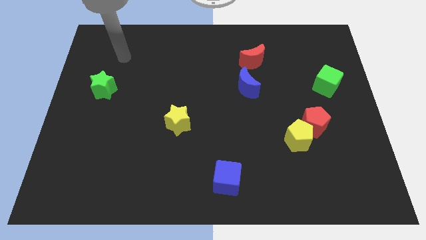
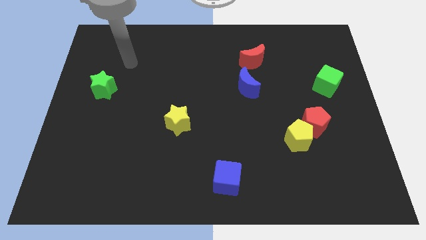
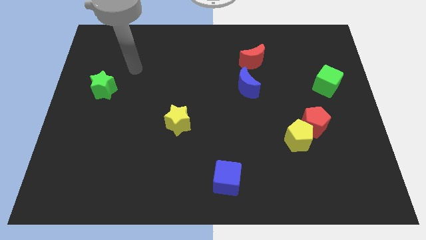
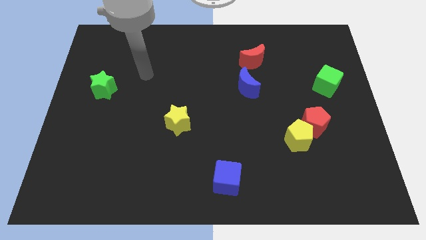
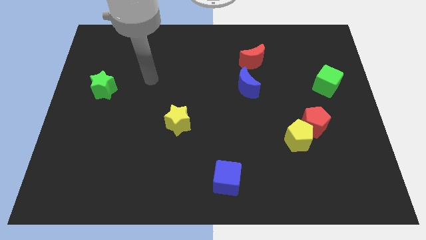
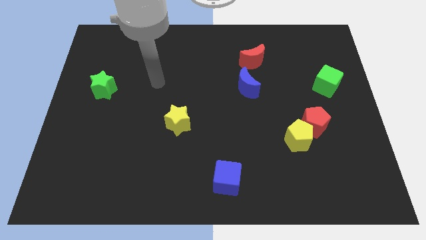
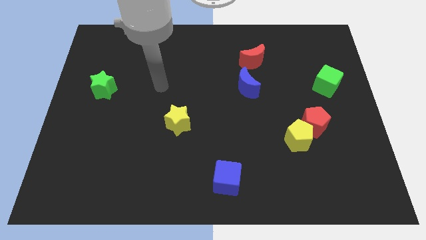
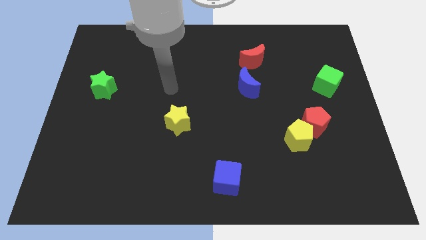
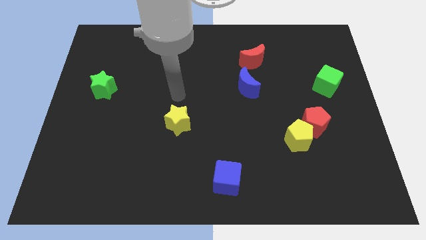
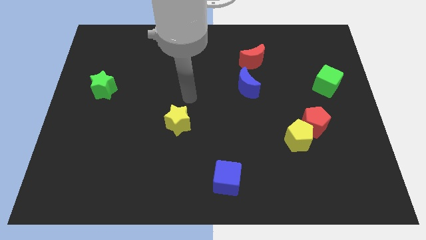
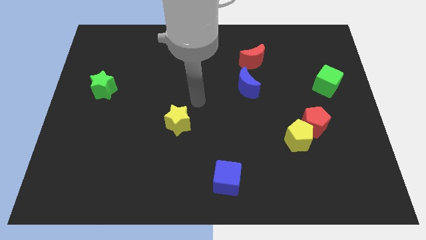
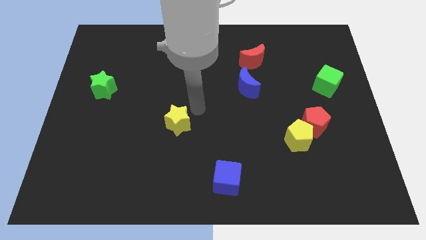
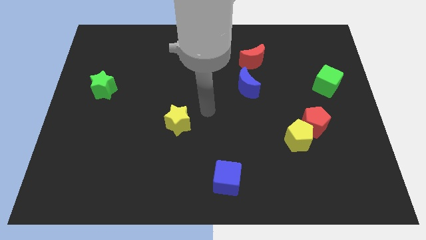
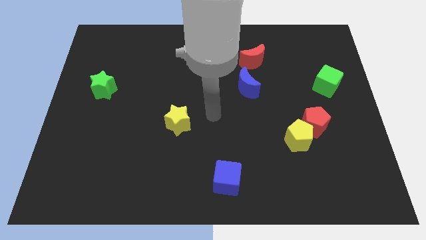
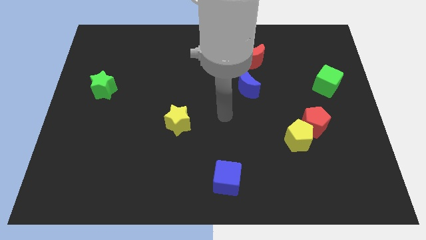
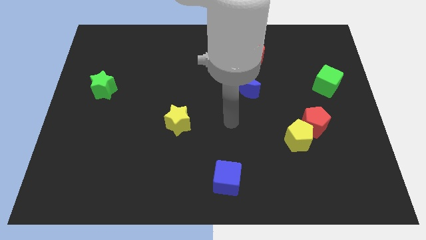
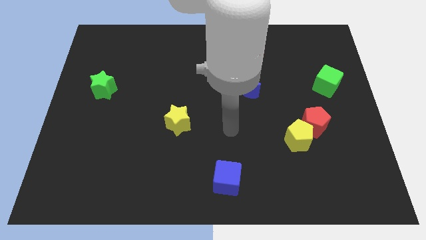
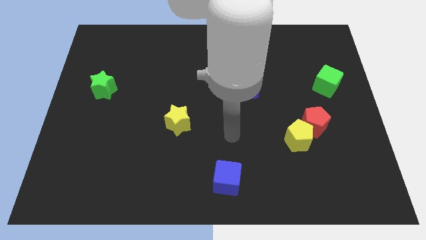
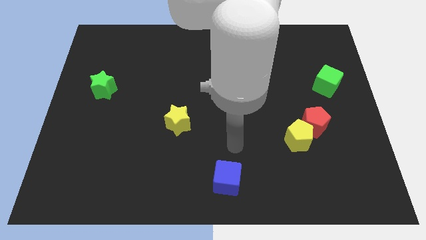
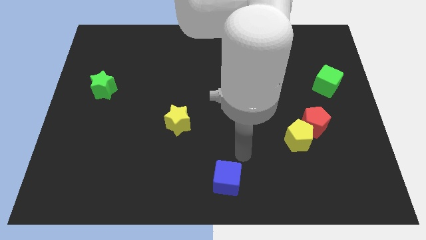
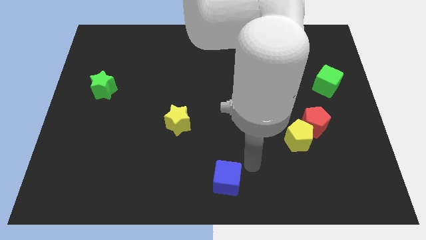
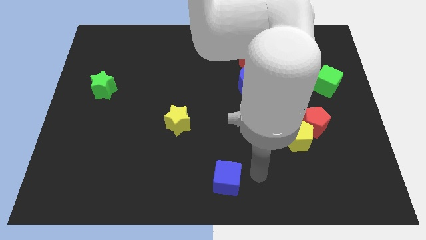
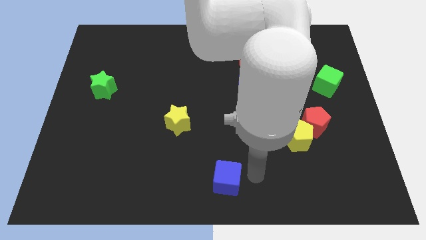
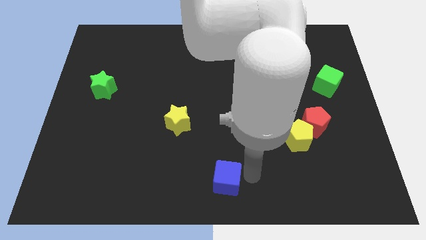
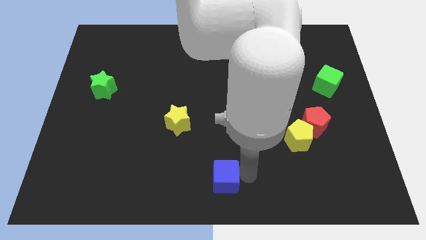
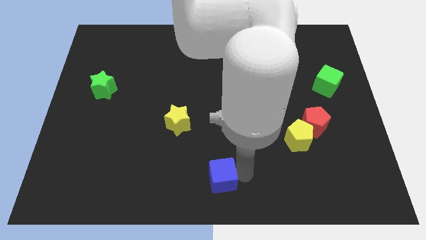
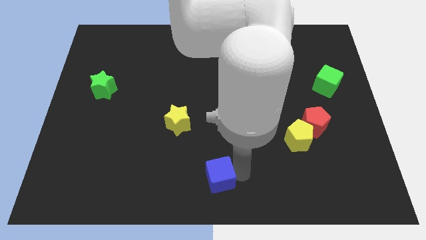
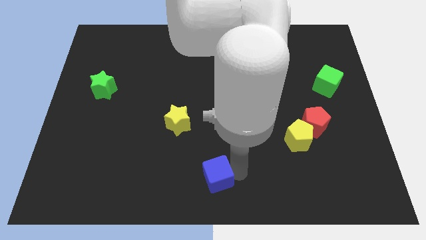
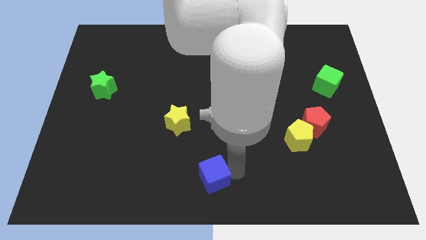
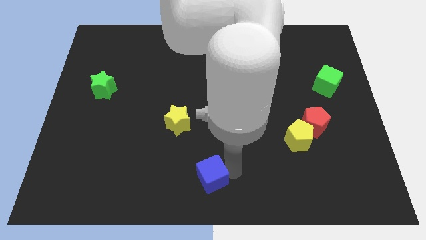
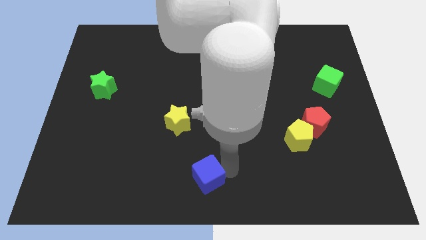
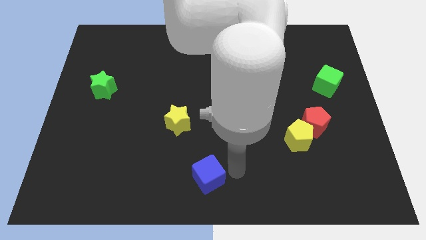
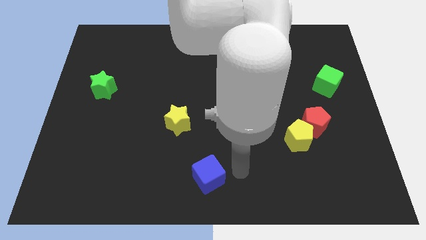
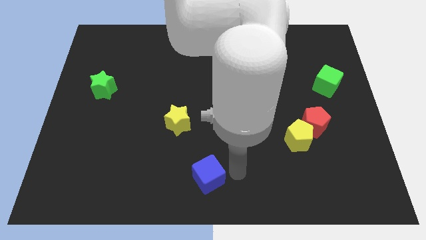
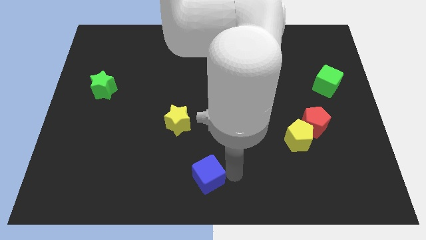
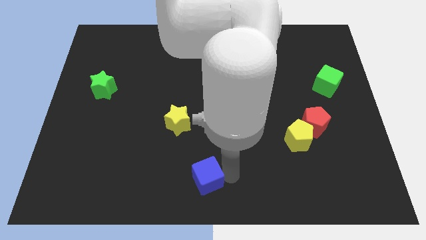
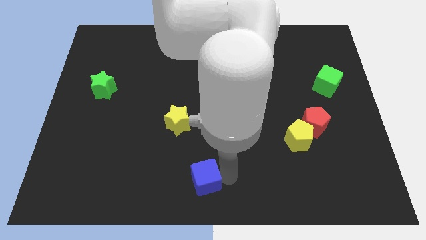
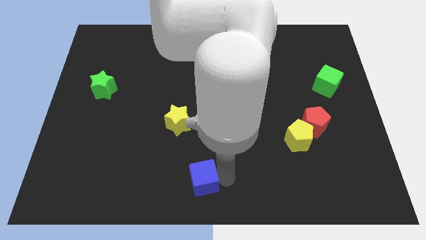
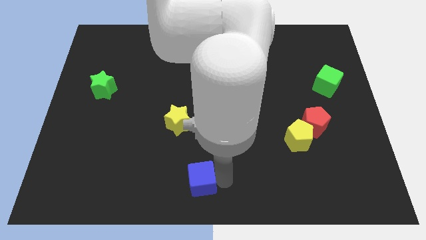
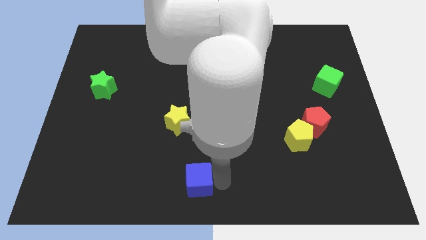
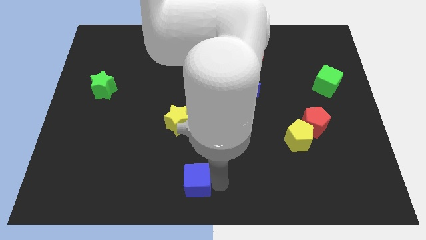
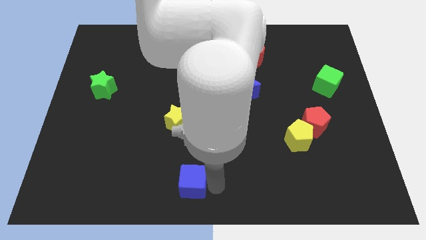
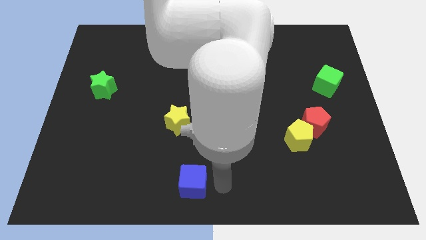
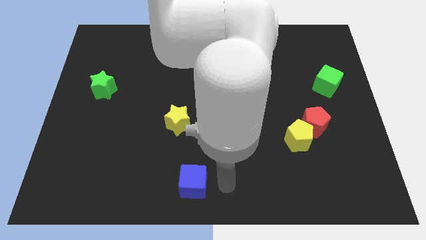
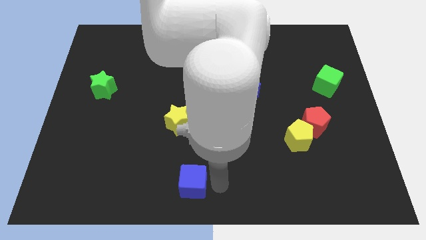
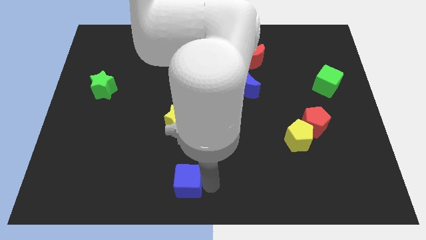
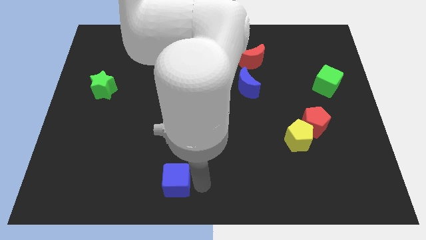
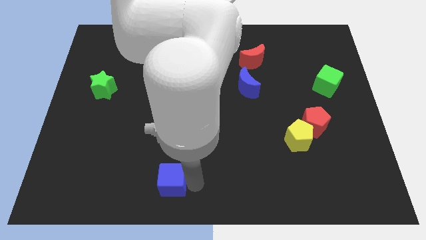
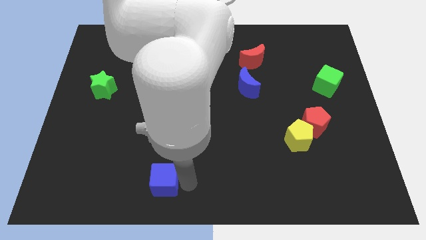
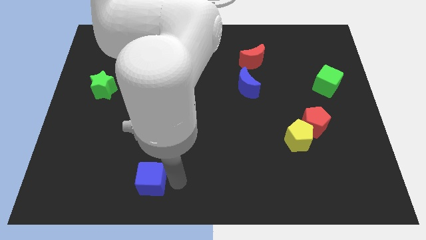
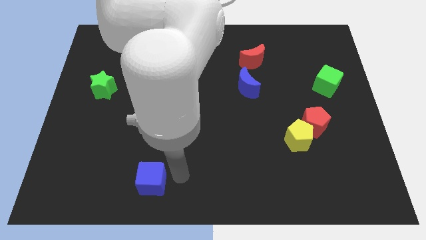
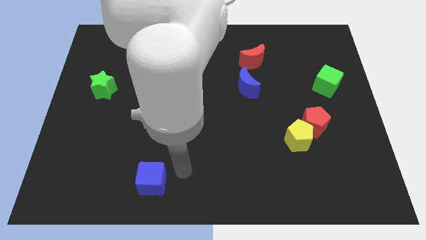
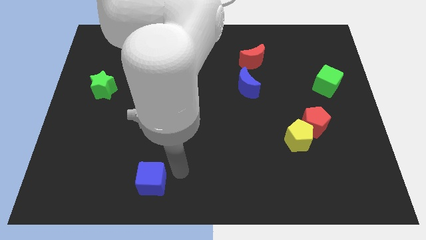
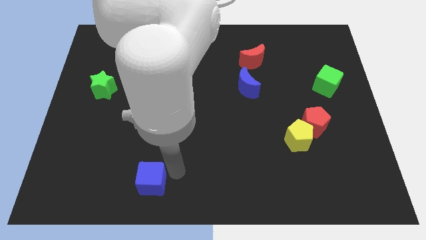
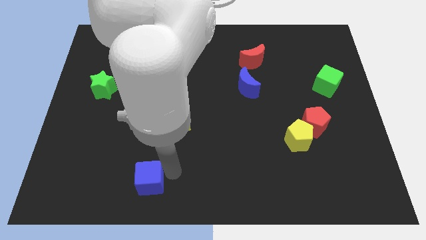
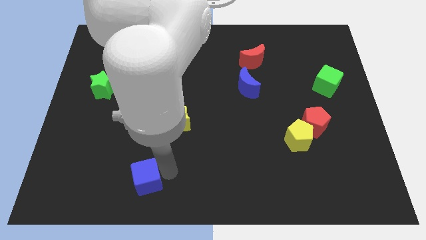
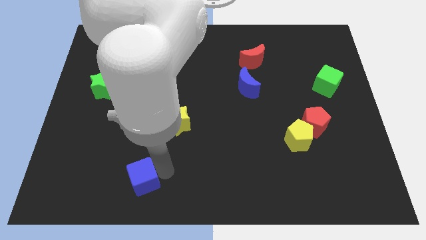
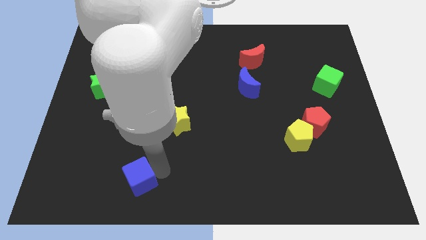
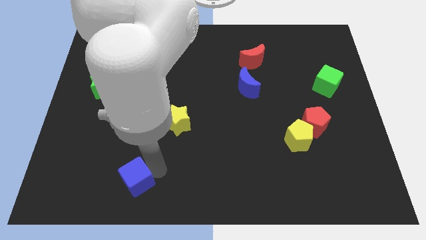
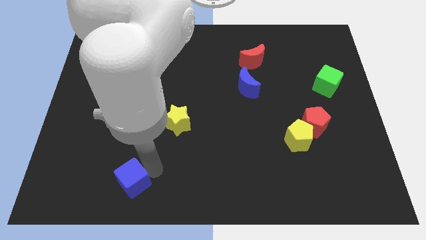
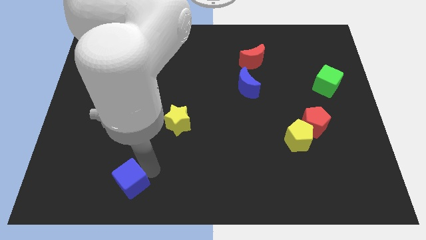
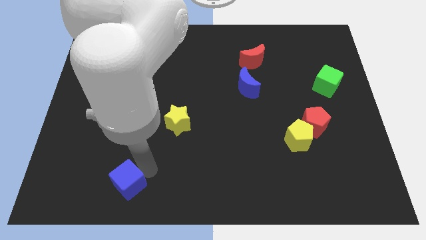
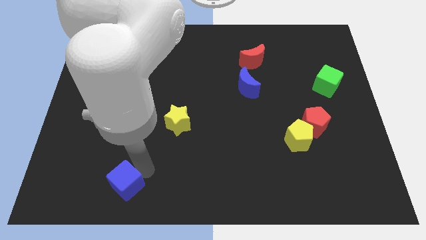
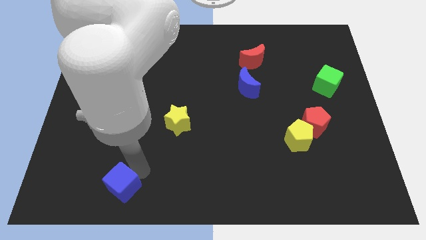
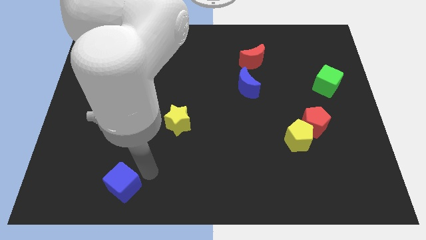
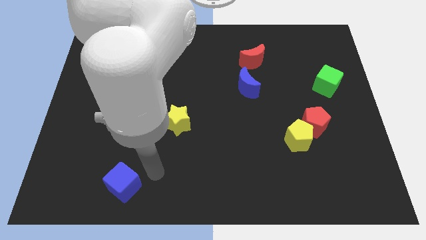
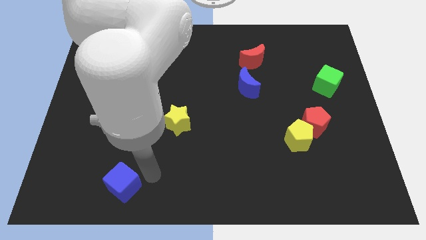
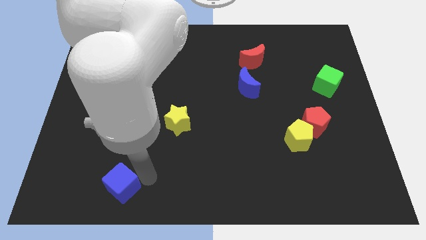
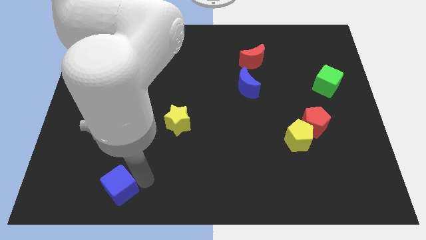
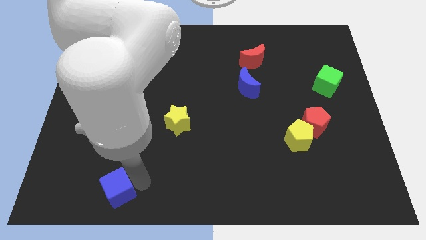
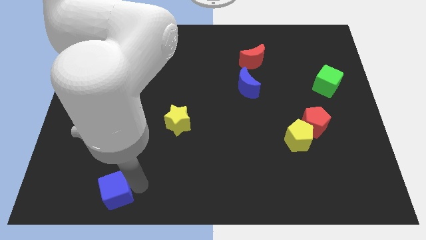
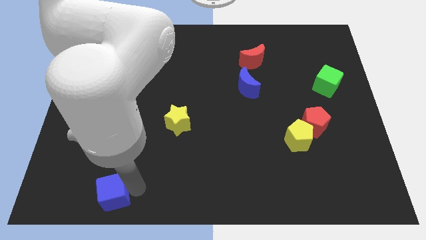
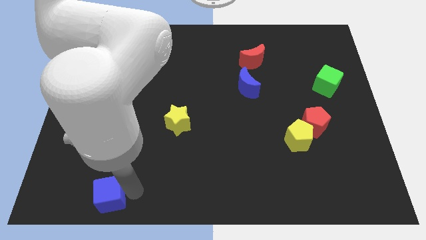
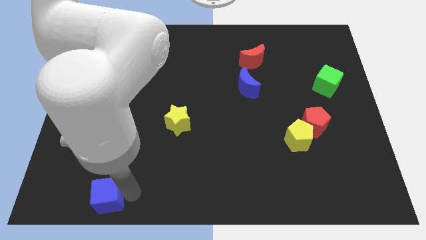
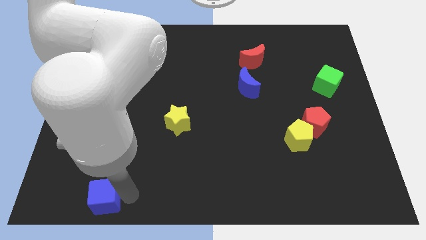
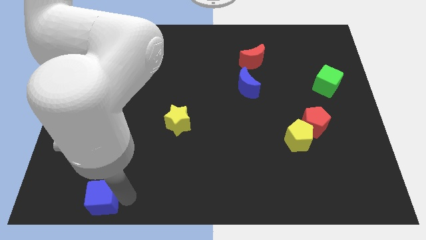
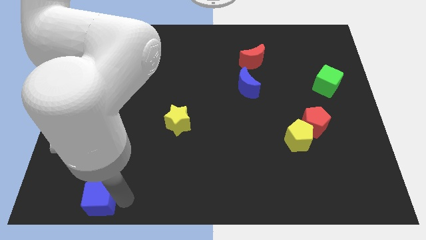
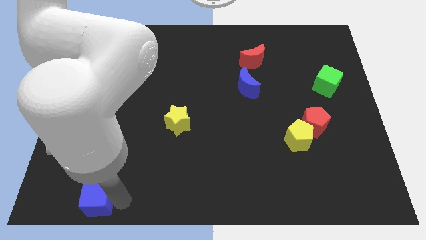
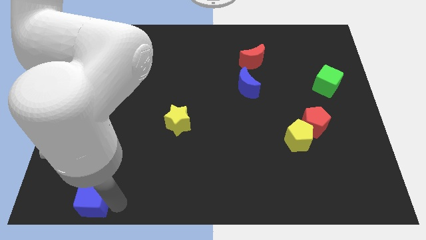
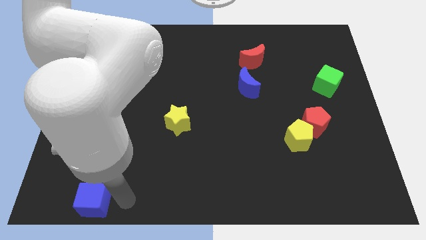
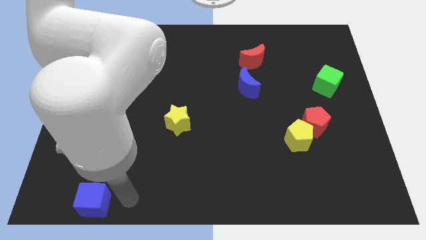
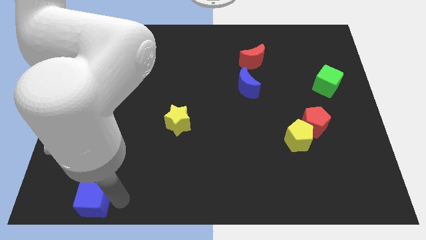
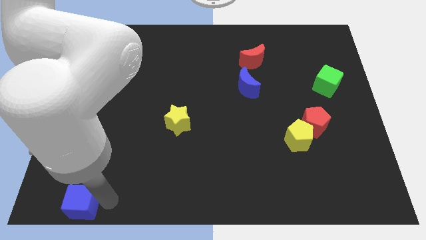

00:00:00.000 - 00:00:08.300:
push the blue cube to the lower left corner
